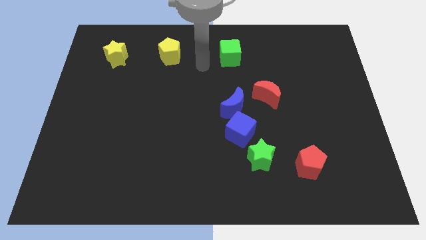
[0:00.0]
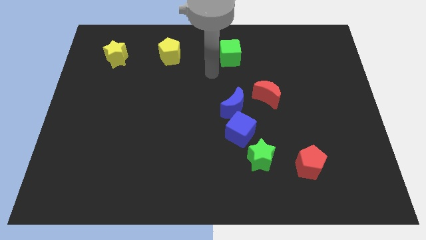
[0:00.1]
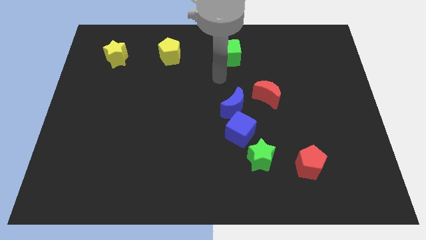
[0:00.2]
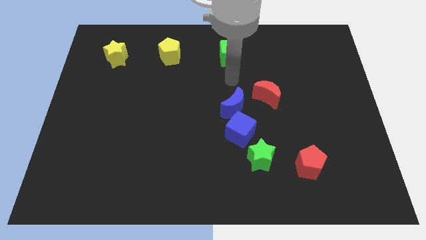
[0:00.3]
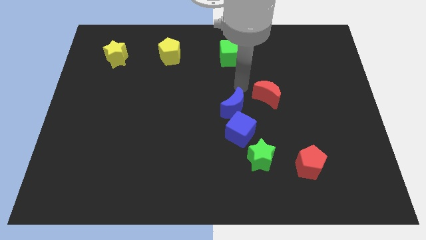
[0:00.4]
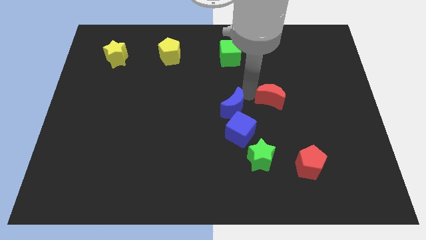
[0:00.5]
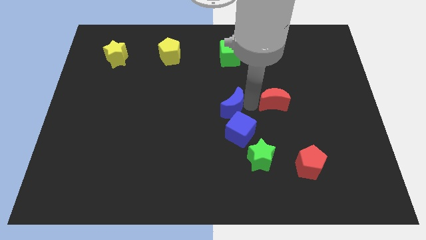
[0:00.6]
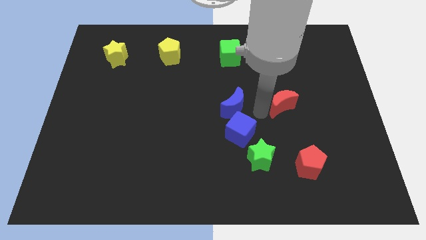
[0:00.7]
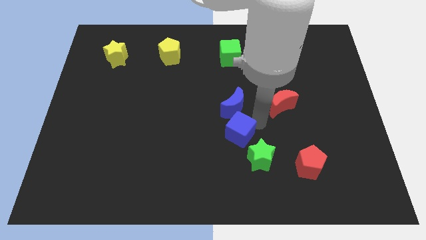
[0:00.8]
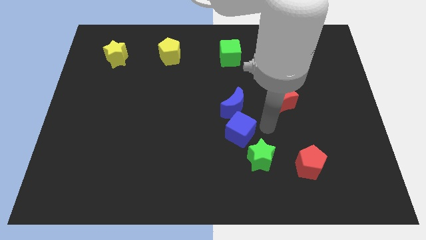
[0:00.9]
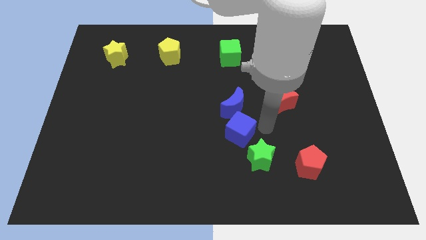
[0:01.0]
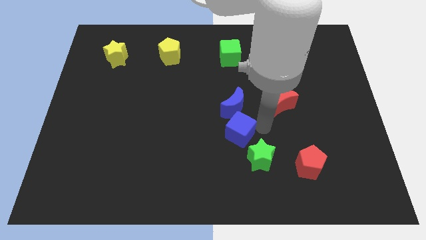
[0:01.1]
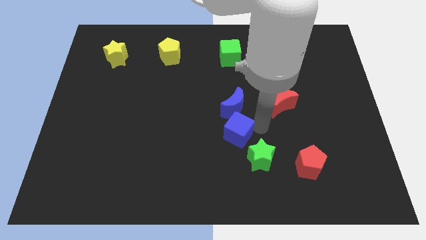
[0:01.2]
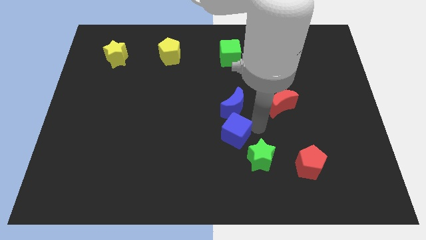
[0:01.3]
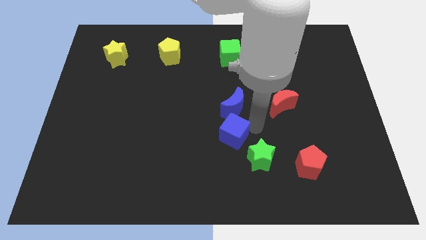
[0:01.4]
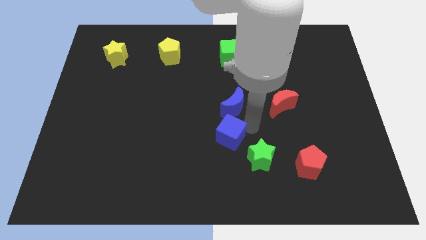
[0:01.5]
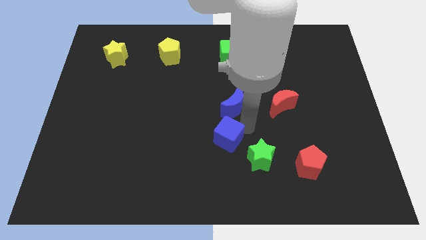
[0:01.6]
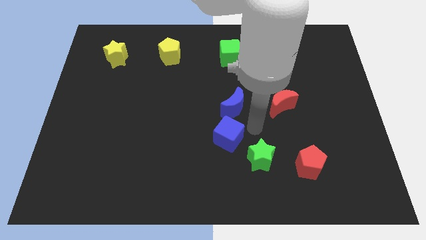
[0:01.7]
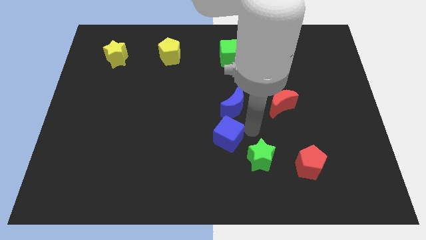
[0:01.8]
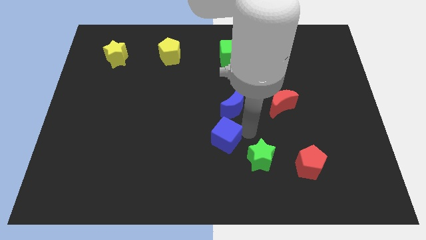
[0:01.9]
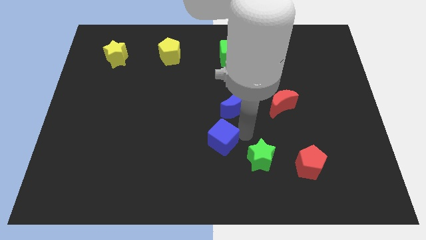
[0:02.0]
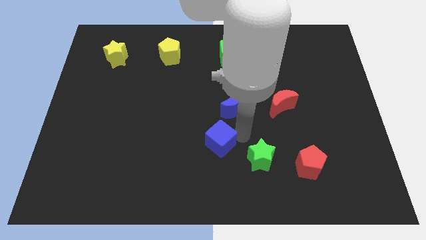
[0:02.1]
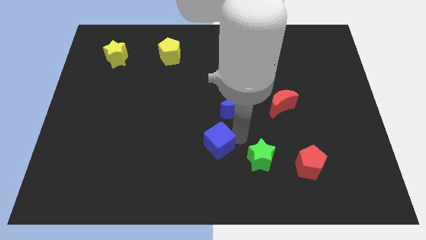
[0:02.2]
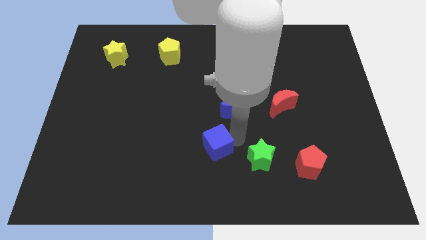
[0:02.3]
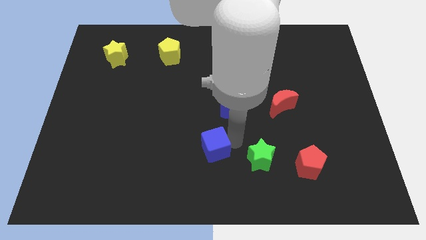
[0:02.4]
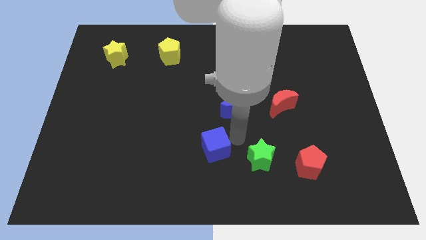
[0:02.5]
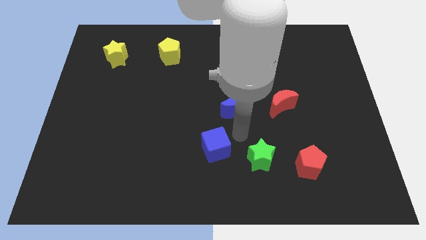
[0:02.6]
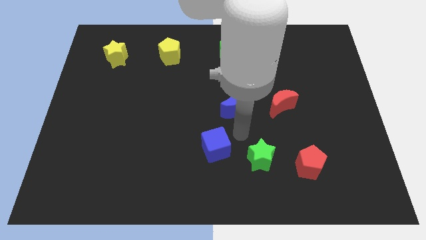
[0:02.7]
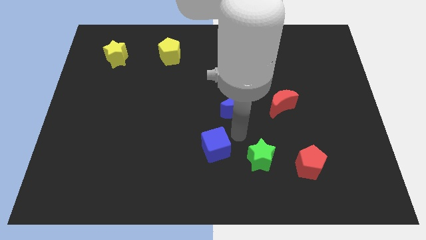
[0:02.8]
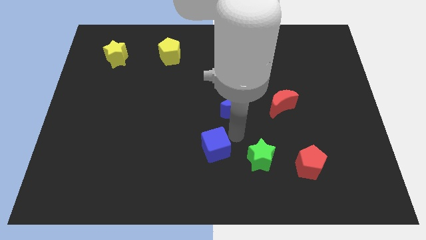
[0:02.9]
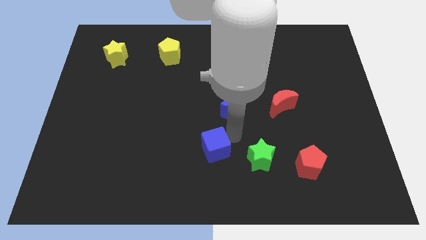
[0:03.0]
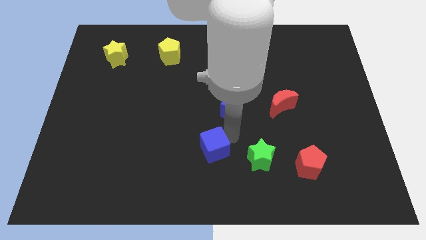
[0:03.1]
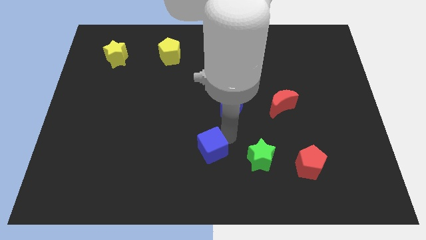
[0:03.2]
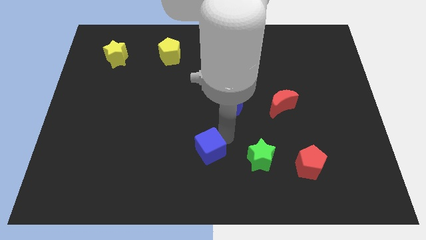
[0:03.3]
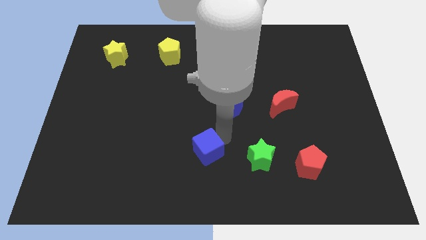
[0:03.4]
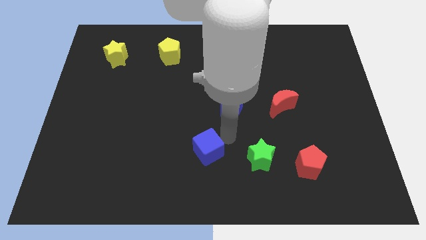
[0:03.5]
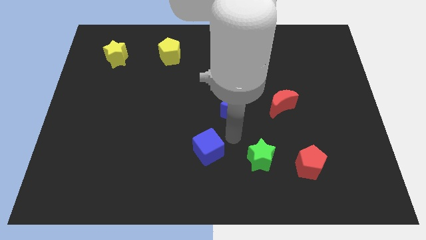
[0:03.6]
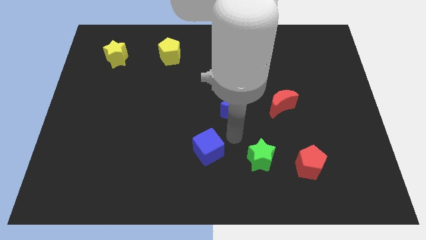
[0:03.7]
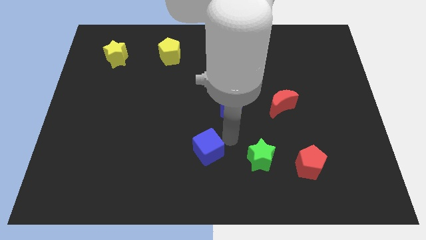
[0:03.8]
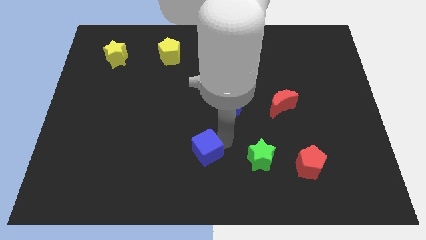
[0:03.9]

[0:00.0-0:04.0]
move the blue cube away from the blue moon and green star

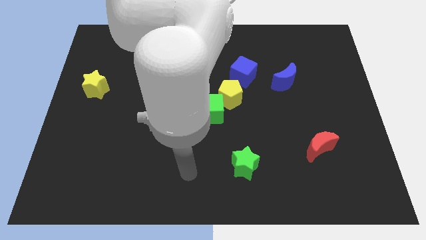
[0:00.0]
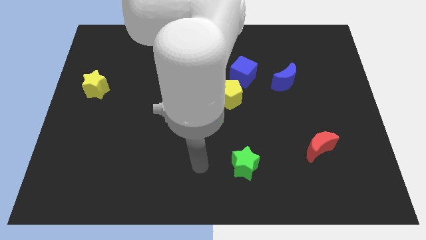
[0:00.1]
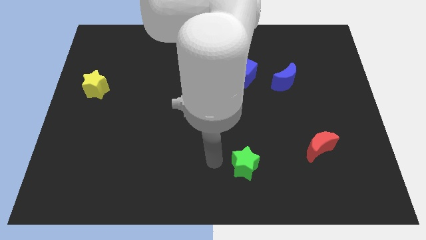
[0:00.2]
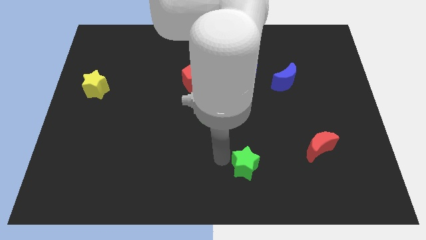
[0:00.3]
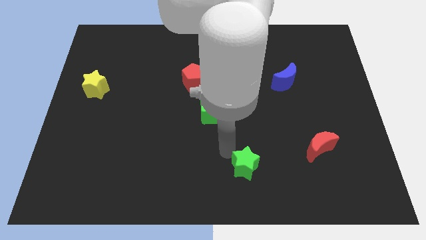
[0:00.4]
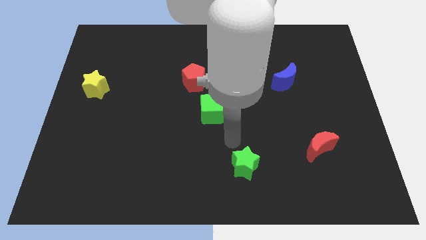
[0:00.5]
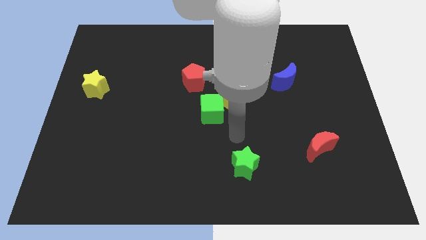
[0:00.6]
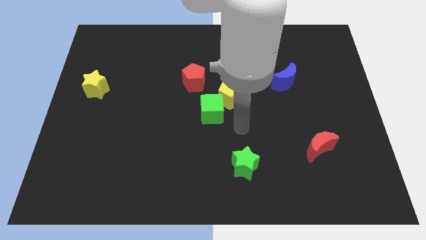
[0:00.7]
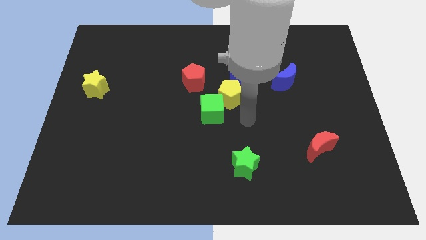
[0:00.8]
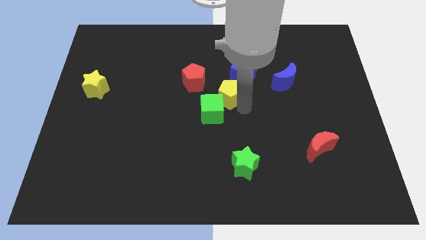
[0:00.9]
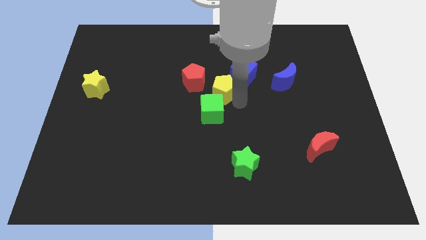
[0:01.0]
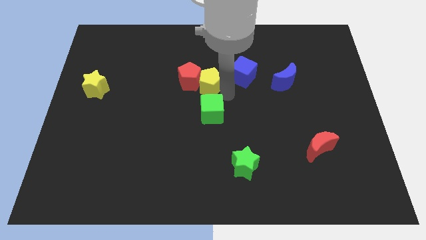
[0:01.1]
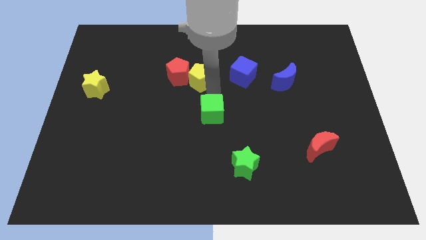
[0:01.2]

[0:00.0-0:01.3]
separate the green cube from the yellow pentagon

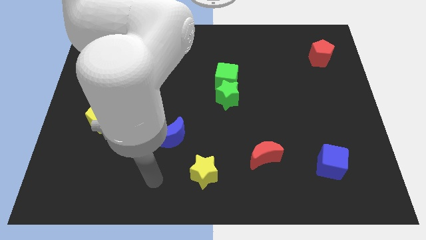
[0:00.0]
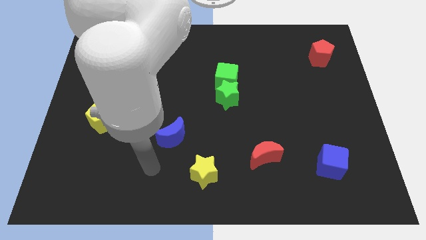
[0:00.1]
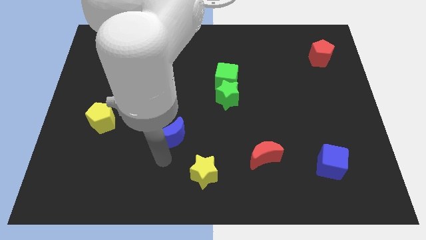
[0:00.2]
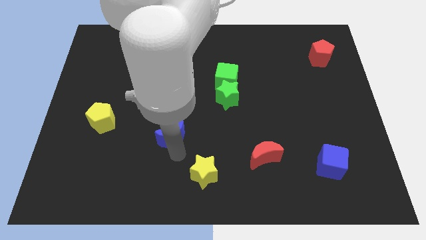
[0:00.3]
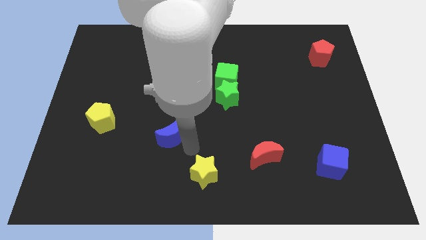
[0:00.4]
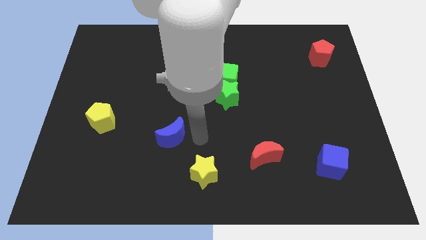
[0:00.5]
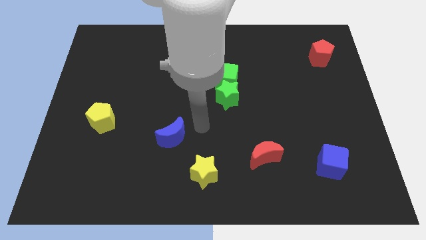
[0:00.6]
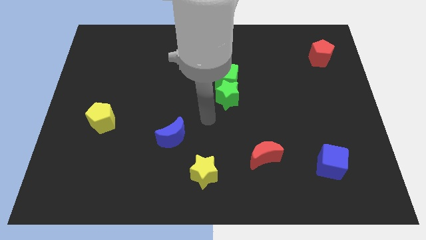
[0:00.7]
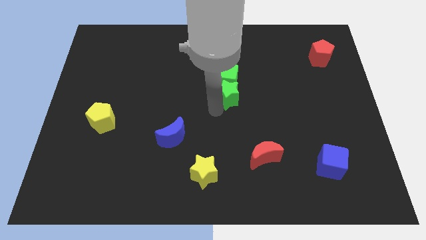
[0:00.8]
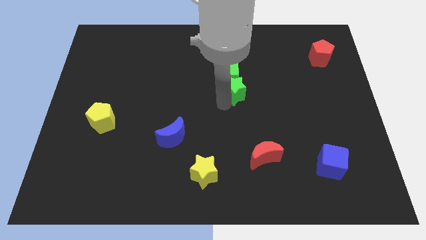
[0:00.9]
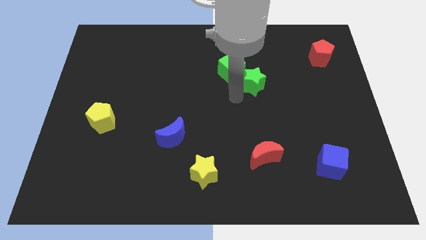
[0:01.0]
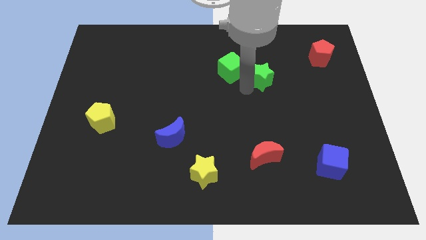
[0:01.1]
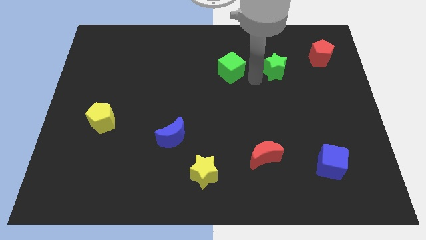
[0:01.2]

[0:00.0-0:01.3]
move the green cube away from the green star

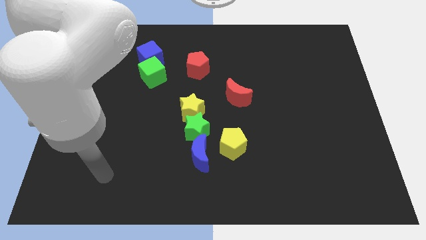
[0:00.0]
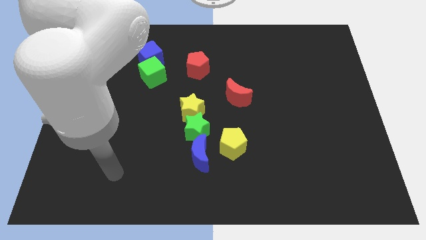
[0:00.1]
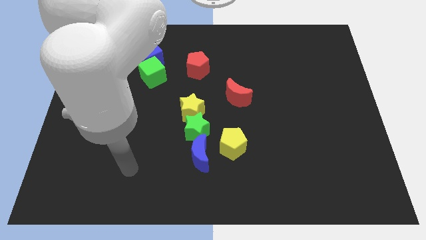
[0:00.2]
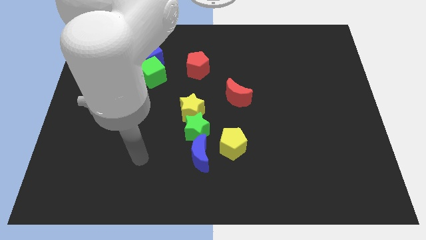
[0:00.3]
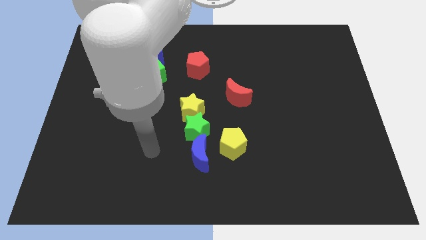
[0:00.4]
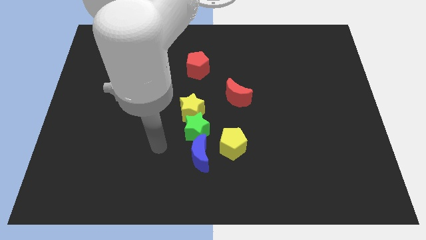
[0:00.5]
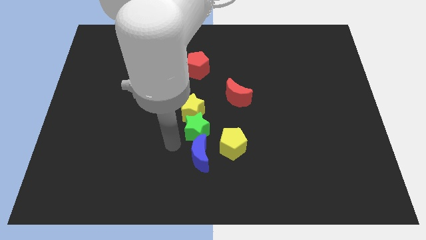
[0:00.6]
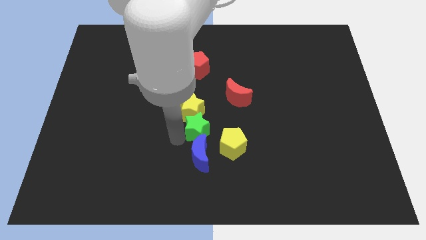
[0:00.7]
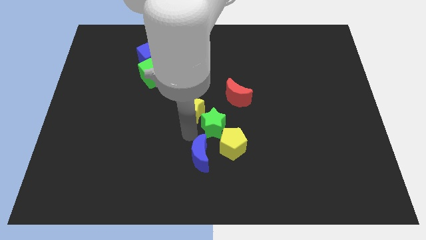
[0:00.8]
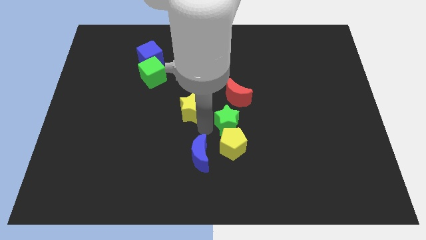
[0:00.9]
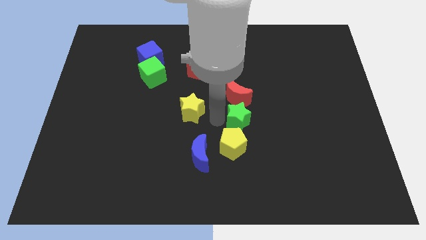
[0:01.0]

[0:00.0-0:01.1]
move the yellow star away from the green star

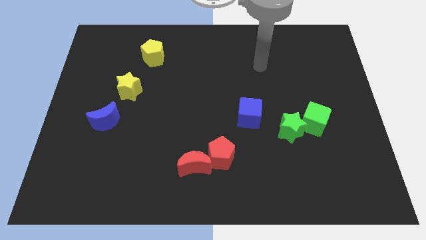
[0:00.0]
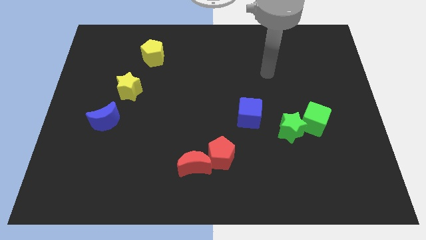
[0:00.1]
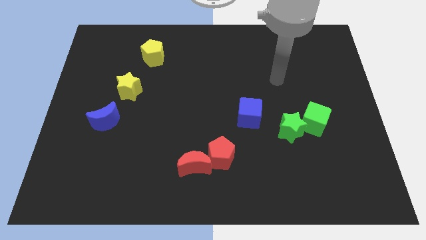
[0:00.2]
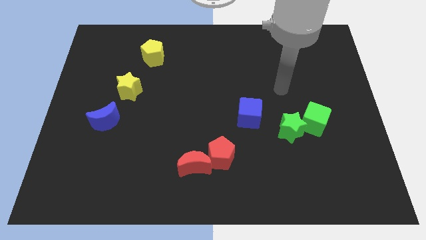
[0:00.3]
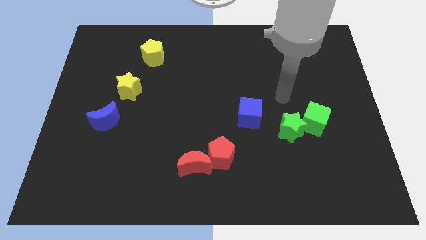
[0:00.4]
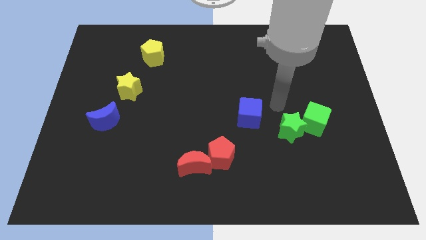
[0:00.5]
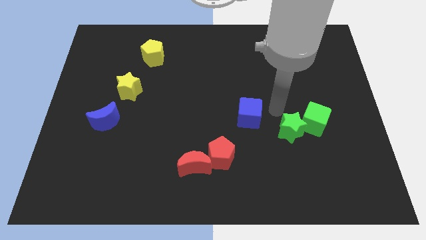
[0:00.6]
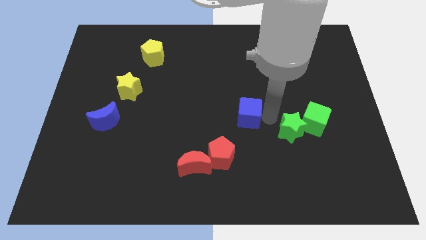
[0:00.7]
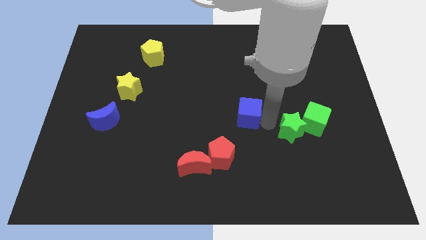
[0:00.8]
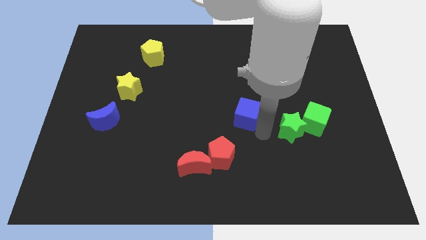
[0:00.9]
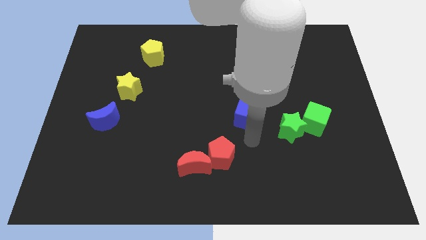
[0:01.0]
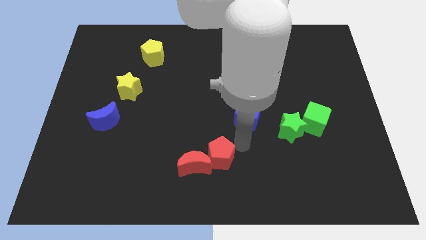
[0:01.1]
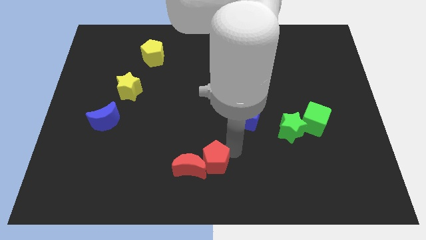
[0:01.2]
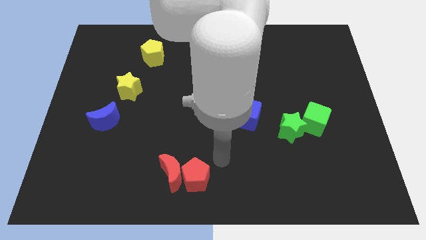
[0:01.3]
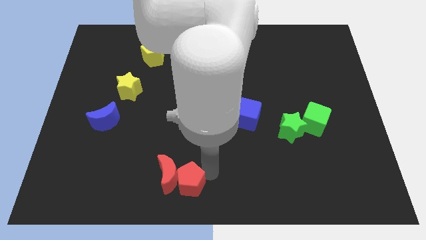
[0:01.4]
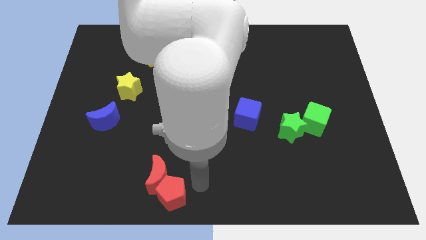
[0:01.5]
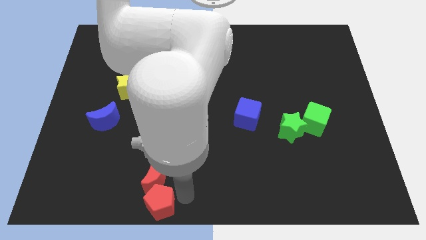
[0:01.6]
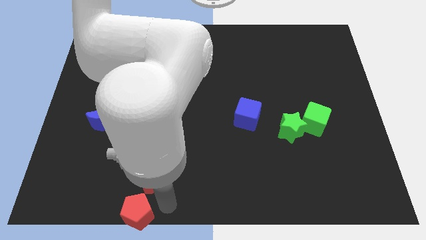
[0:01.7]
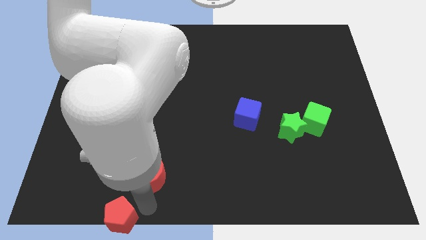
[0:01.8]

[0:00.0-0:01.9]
separate the red moon from the red pentagon
